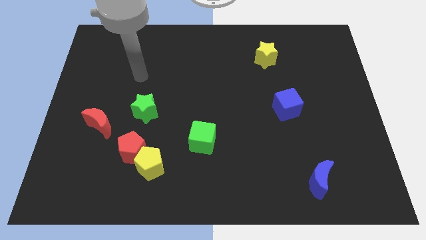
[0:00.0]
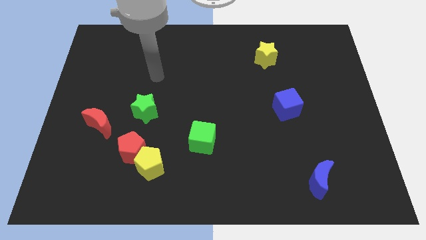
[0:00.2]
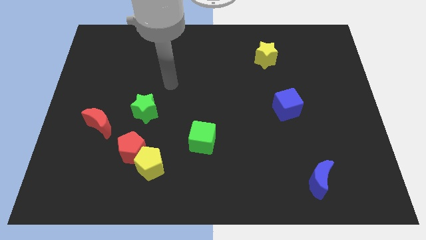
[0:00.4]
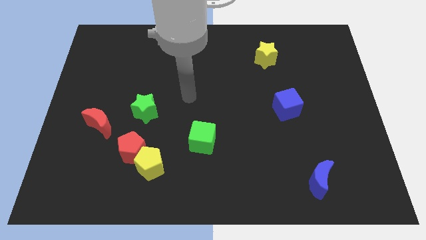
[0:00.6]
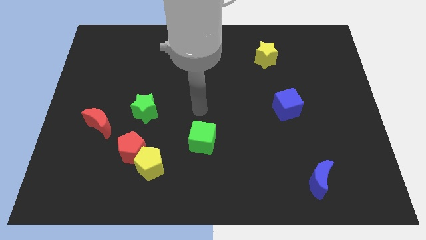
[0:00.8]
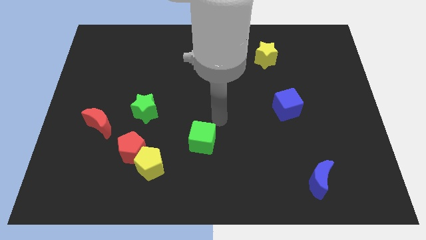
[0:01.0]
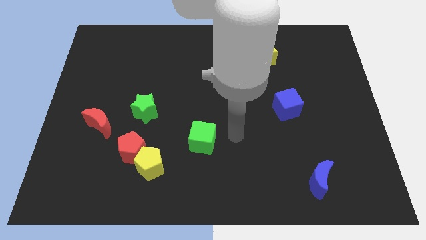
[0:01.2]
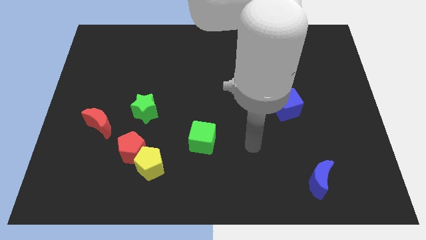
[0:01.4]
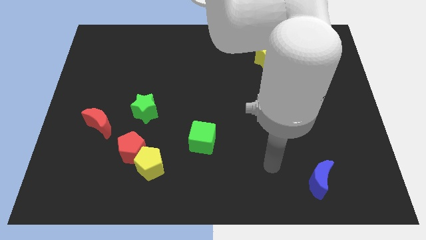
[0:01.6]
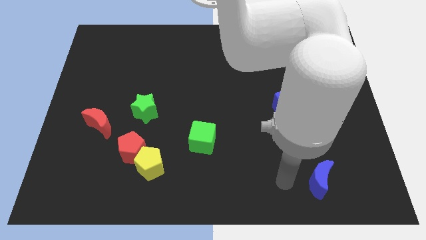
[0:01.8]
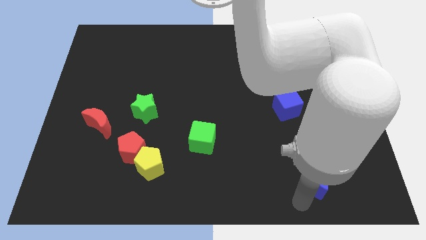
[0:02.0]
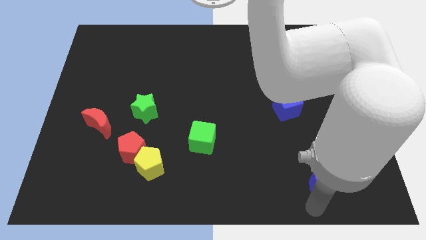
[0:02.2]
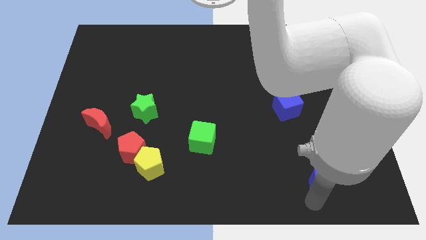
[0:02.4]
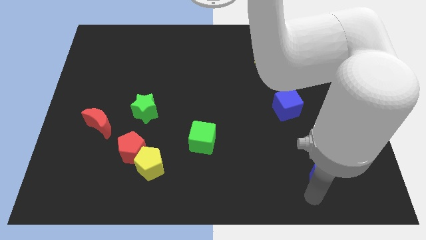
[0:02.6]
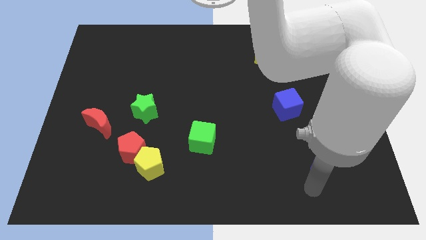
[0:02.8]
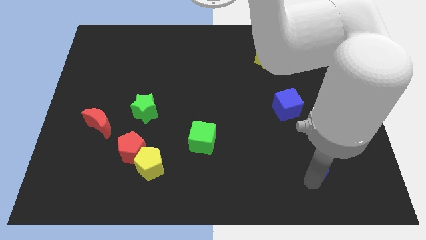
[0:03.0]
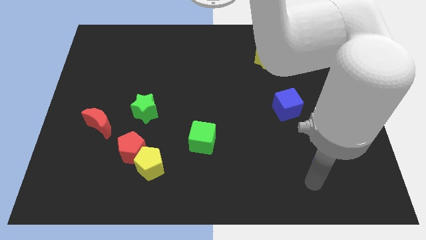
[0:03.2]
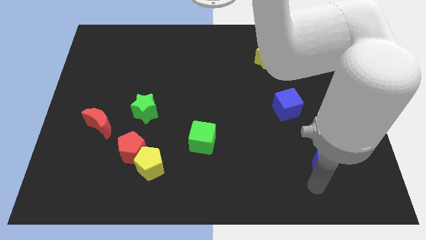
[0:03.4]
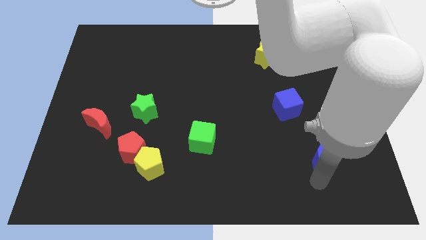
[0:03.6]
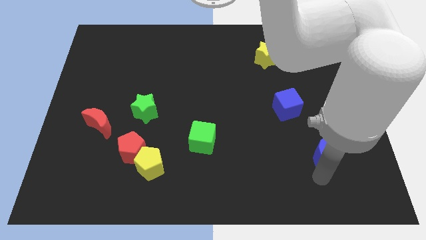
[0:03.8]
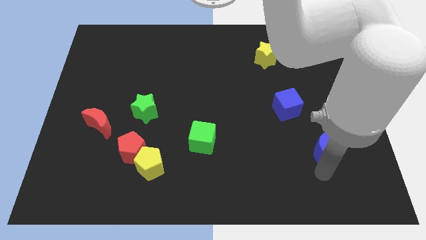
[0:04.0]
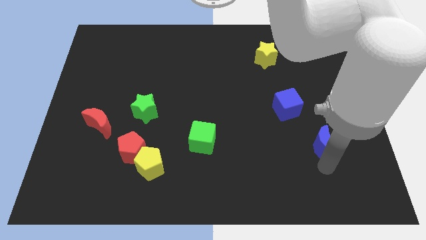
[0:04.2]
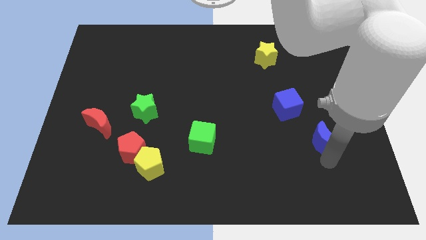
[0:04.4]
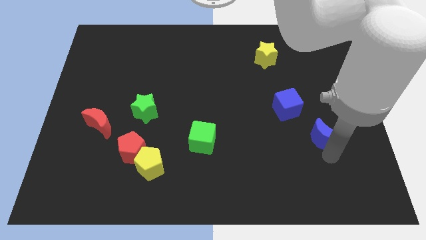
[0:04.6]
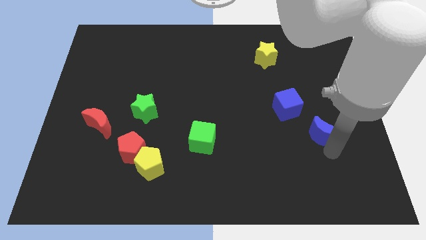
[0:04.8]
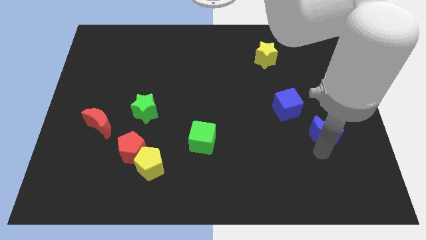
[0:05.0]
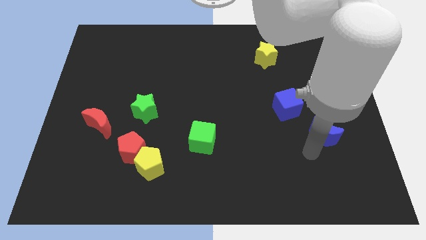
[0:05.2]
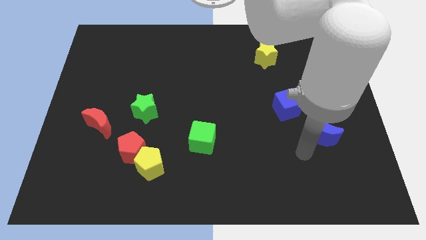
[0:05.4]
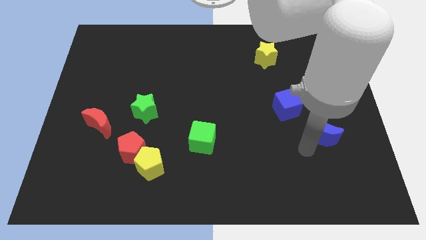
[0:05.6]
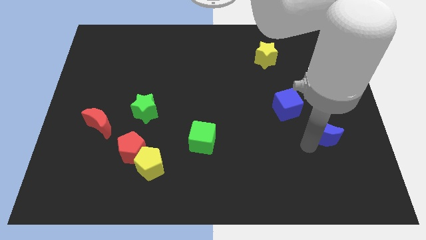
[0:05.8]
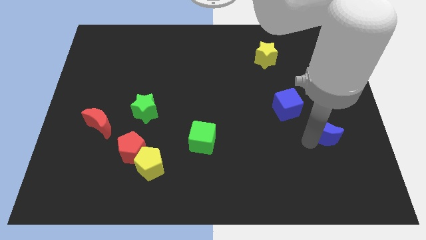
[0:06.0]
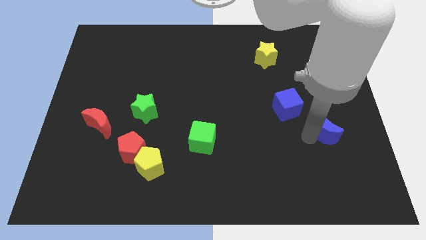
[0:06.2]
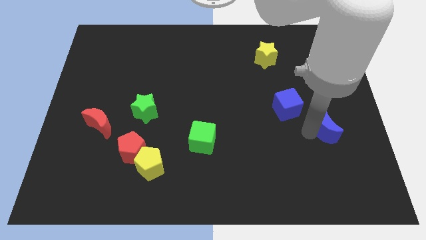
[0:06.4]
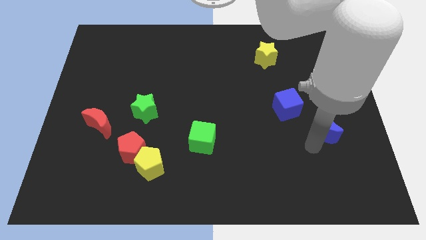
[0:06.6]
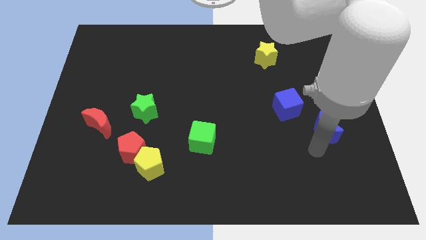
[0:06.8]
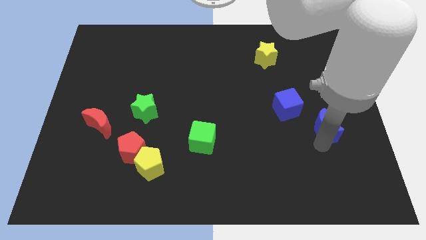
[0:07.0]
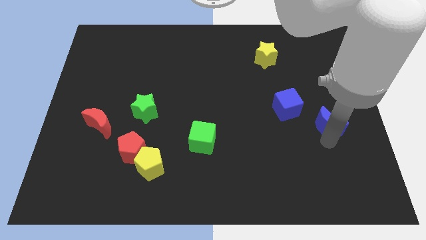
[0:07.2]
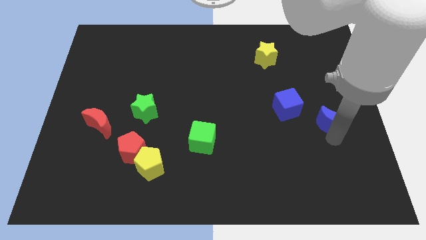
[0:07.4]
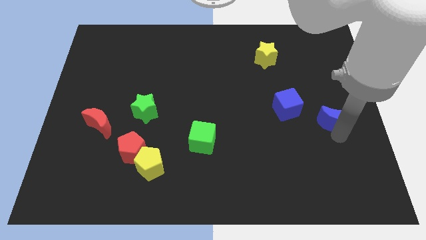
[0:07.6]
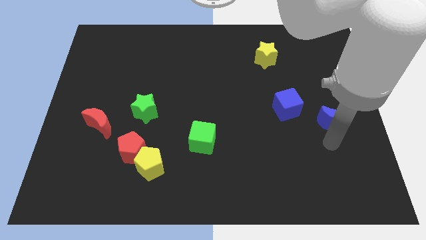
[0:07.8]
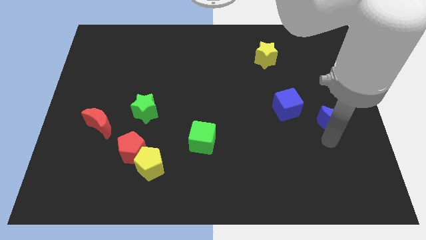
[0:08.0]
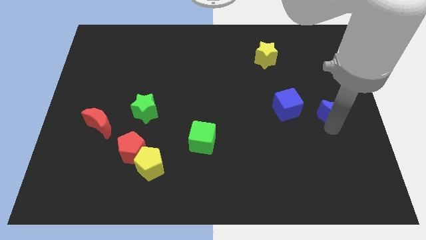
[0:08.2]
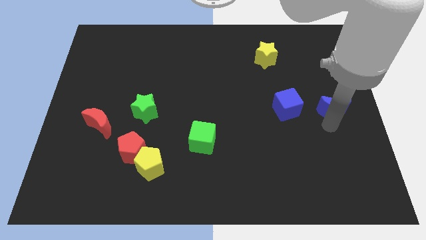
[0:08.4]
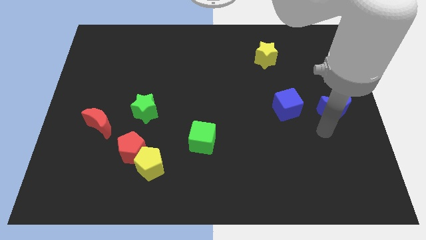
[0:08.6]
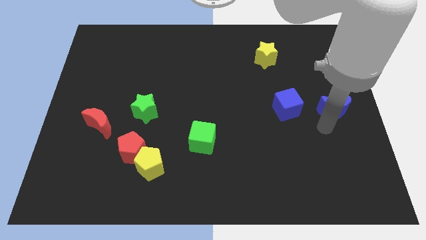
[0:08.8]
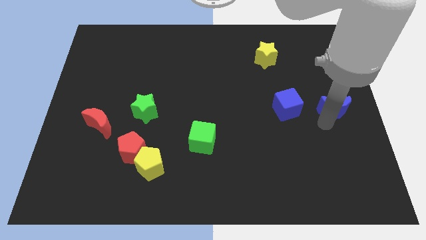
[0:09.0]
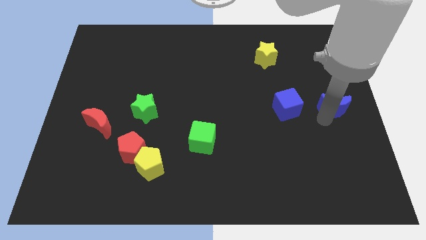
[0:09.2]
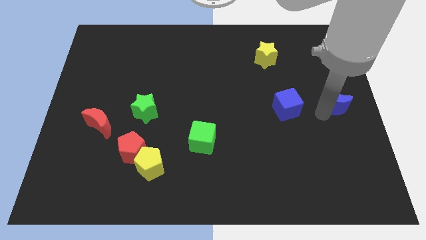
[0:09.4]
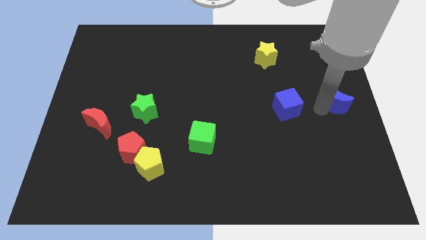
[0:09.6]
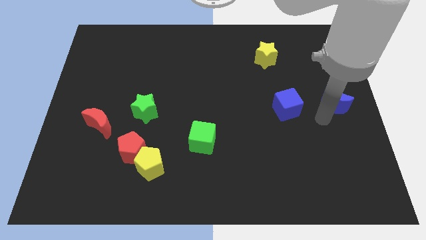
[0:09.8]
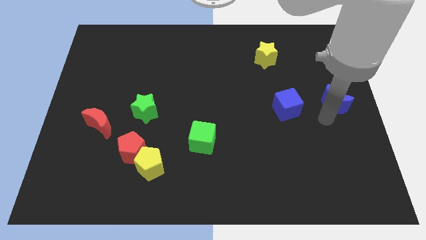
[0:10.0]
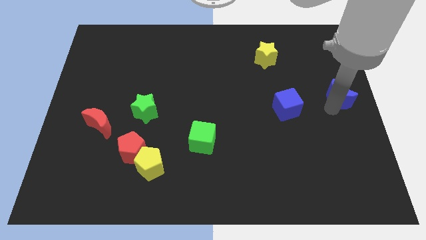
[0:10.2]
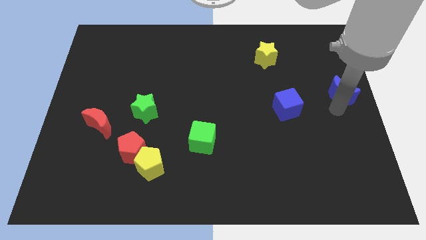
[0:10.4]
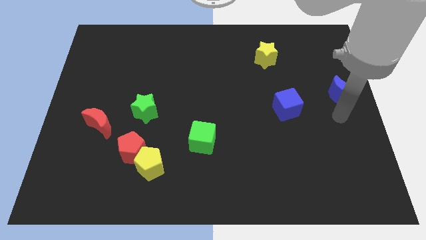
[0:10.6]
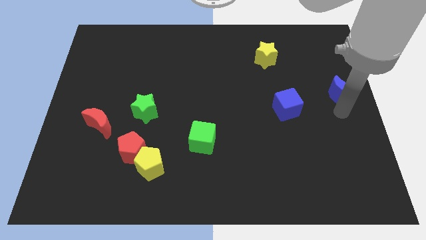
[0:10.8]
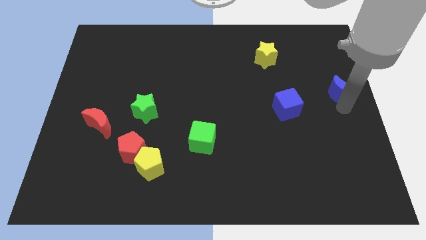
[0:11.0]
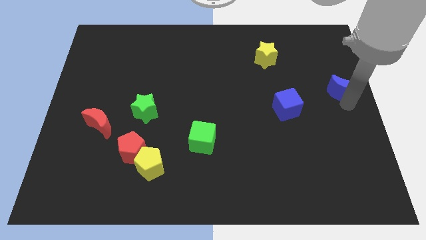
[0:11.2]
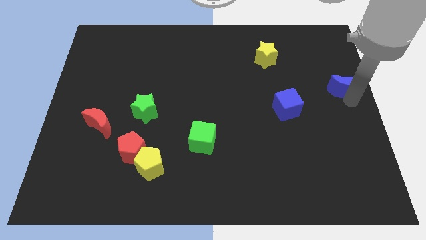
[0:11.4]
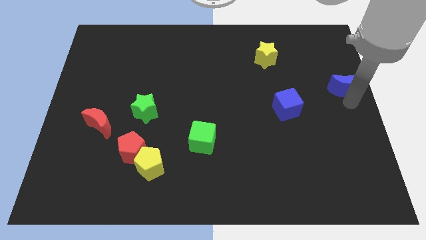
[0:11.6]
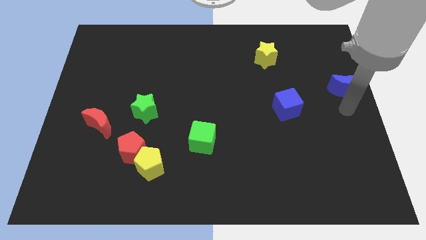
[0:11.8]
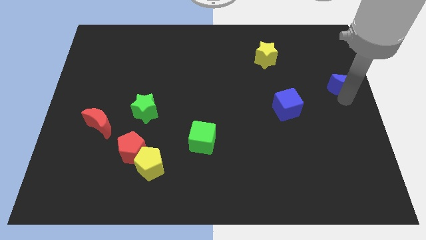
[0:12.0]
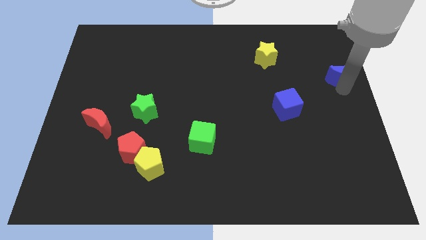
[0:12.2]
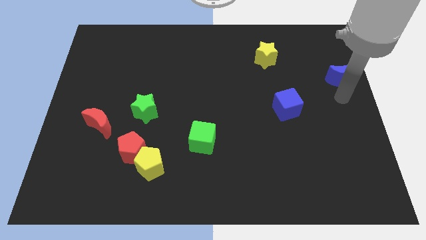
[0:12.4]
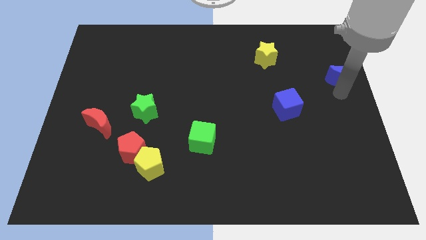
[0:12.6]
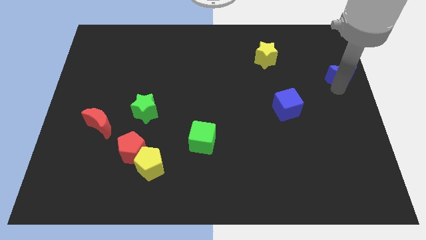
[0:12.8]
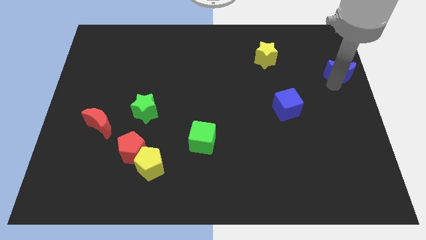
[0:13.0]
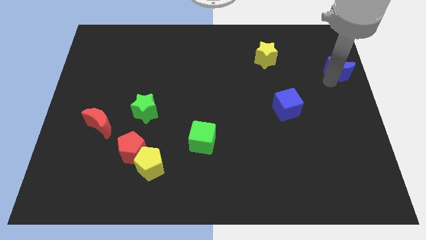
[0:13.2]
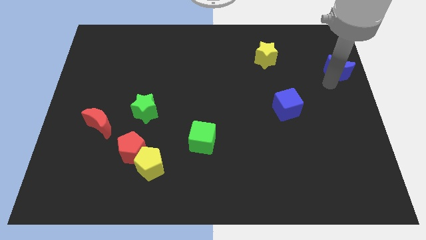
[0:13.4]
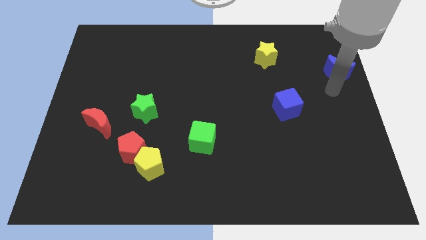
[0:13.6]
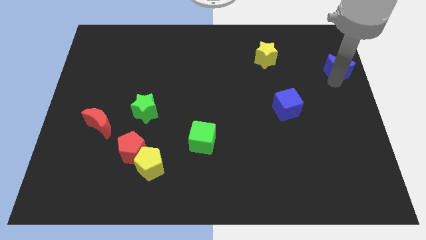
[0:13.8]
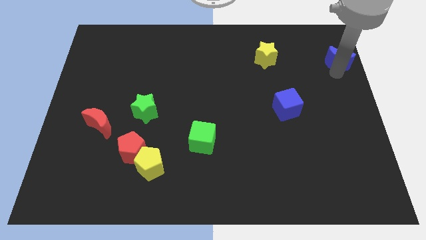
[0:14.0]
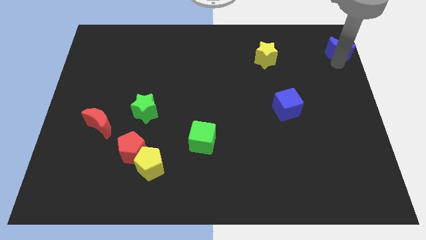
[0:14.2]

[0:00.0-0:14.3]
push the blue moon to the top right of the board
